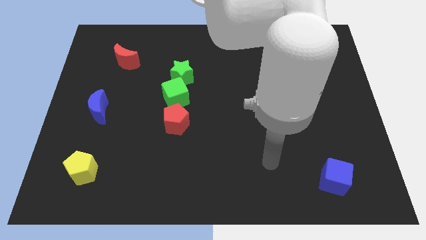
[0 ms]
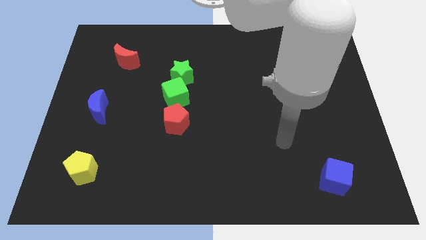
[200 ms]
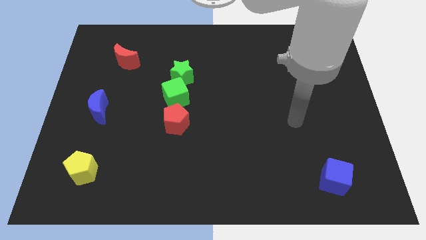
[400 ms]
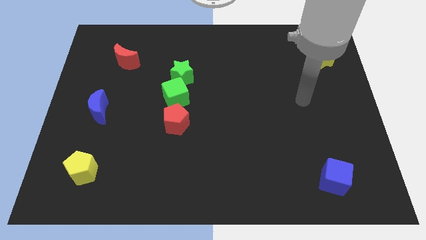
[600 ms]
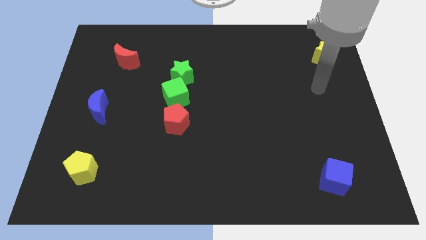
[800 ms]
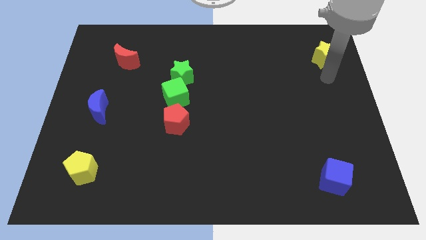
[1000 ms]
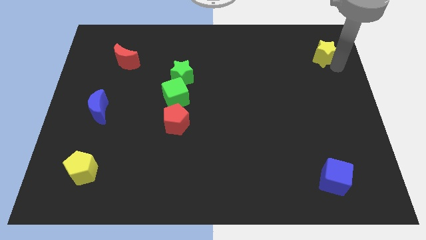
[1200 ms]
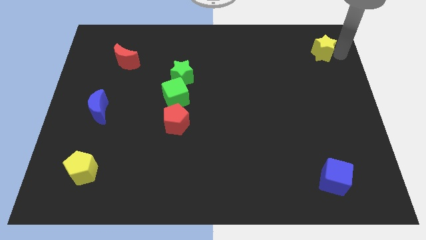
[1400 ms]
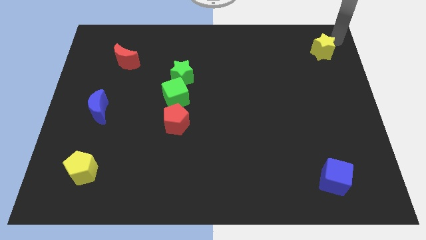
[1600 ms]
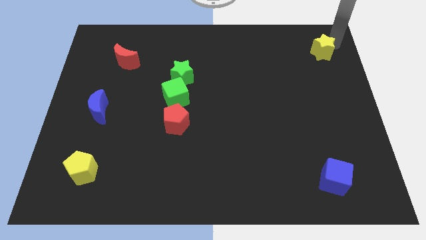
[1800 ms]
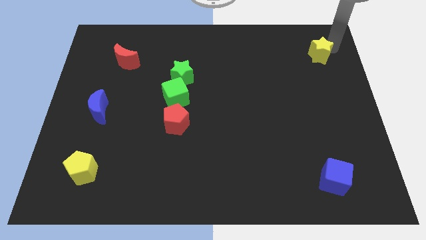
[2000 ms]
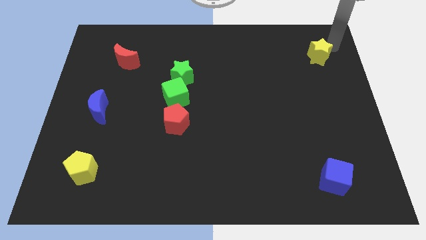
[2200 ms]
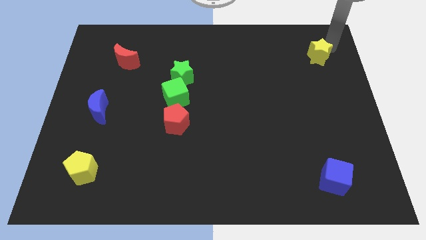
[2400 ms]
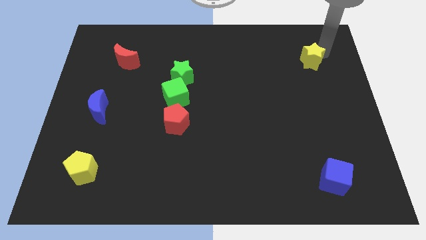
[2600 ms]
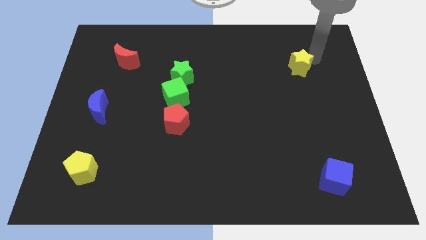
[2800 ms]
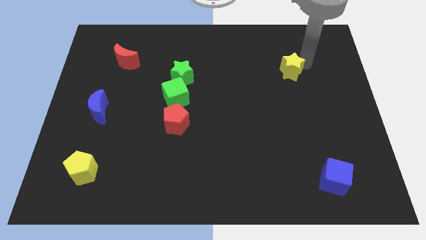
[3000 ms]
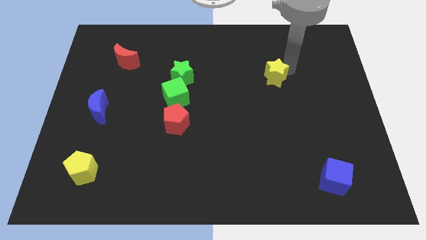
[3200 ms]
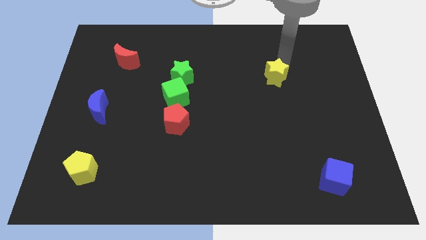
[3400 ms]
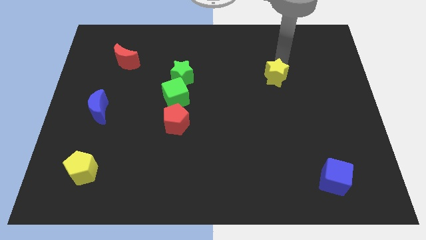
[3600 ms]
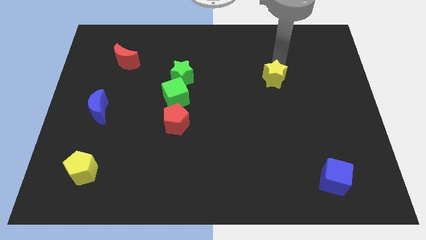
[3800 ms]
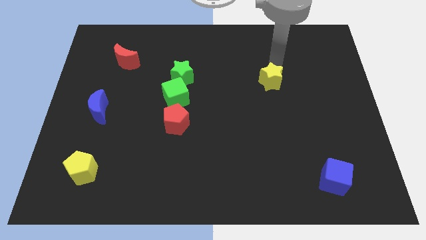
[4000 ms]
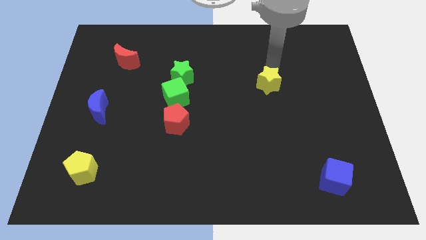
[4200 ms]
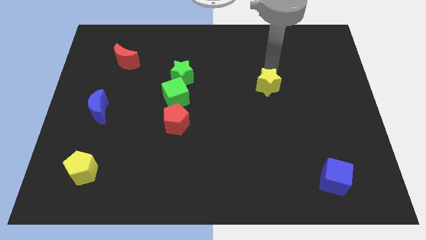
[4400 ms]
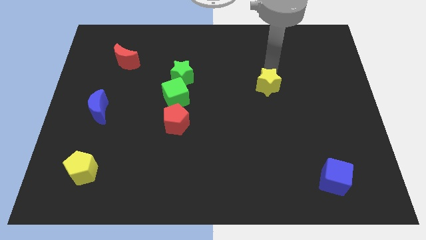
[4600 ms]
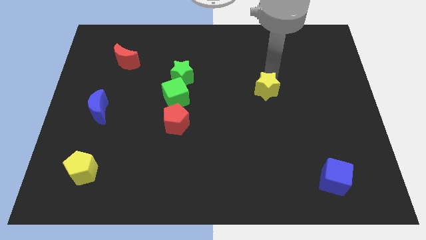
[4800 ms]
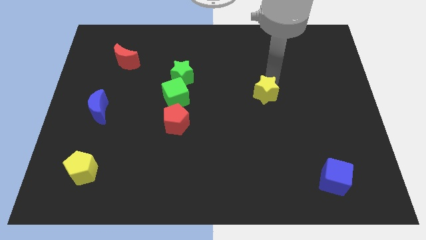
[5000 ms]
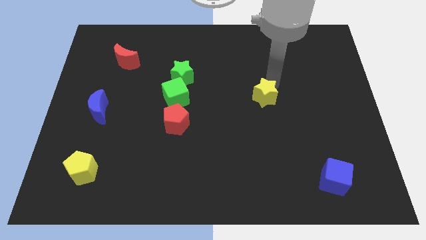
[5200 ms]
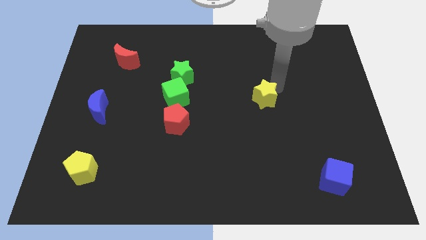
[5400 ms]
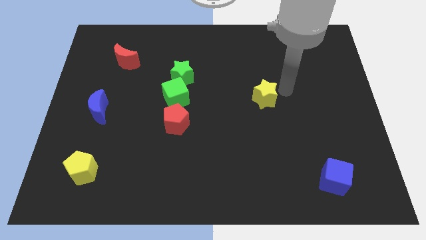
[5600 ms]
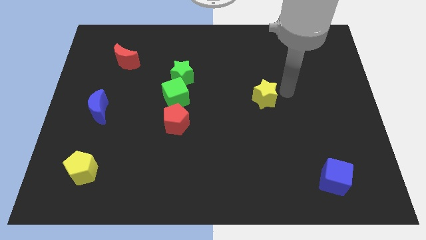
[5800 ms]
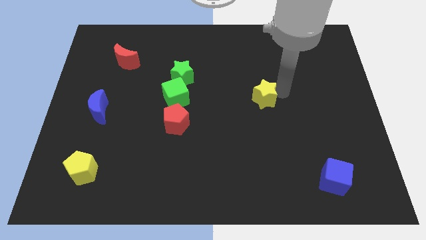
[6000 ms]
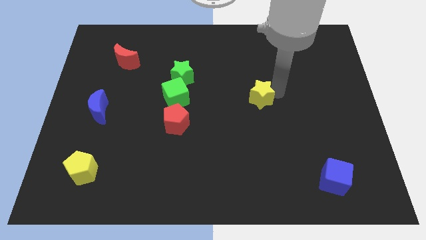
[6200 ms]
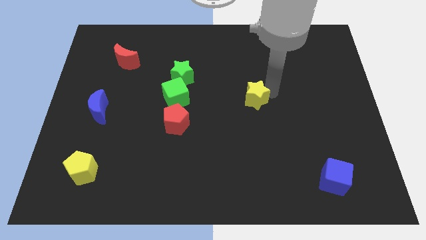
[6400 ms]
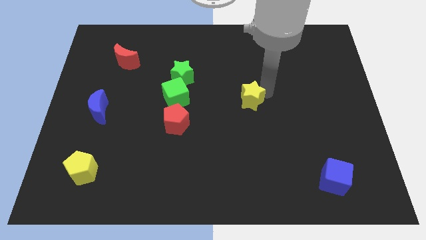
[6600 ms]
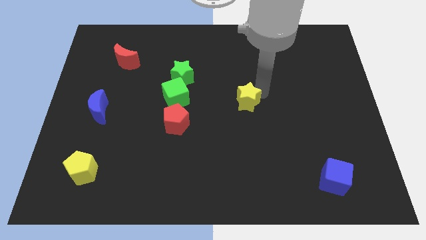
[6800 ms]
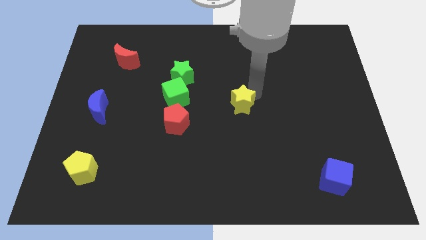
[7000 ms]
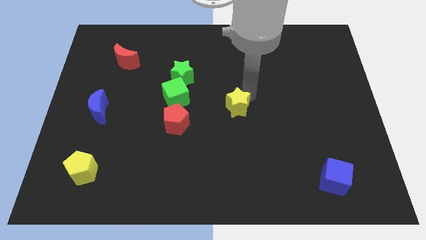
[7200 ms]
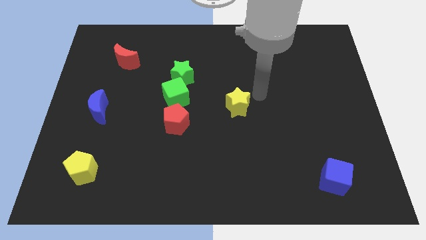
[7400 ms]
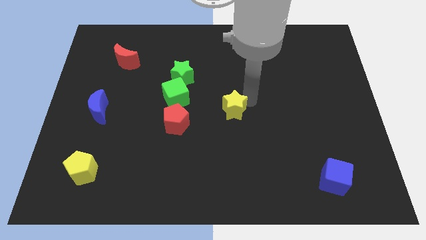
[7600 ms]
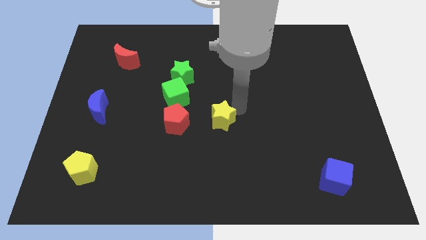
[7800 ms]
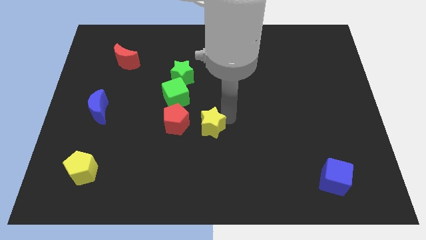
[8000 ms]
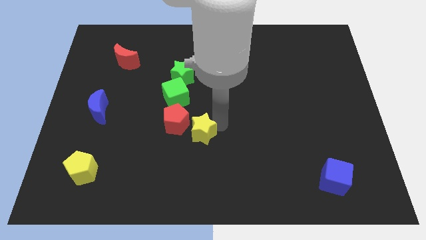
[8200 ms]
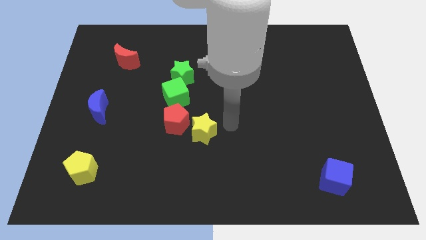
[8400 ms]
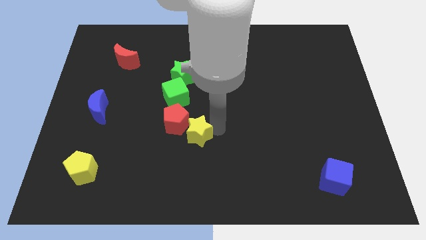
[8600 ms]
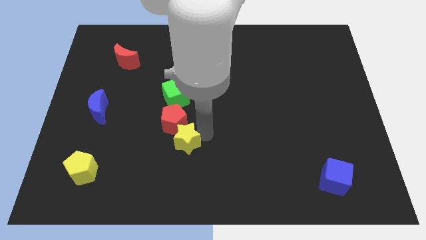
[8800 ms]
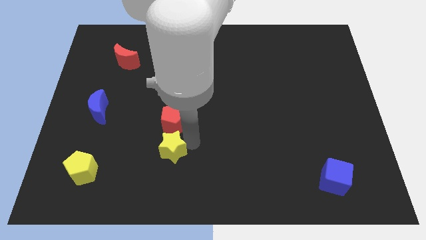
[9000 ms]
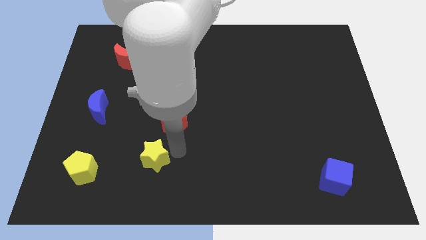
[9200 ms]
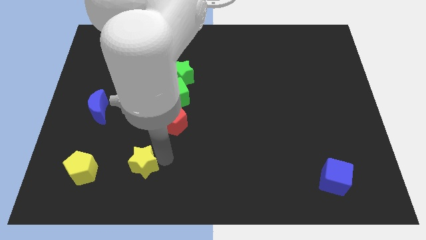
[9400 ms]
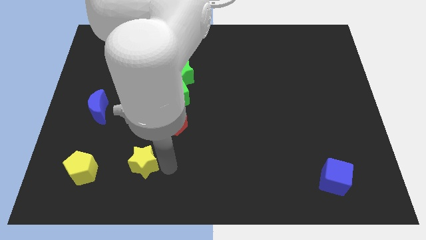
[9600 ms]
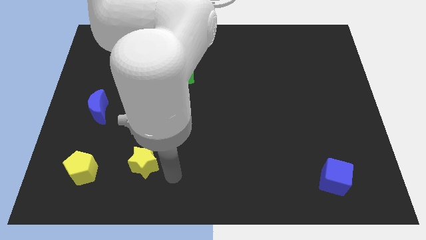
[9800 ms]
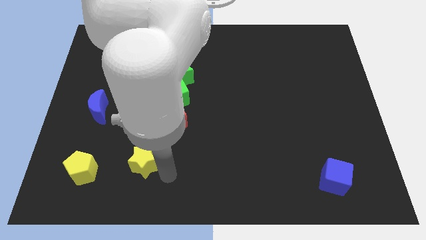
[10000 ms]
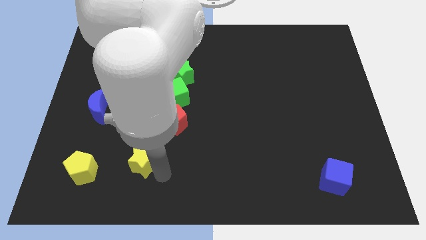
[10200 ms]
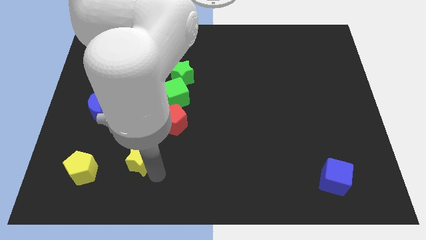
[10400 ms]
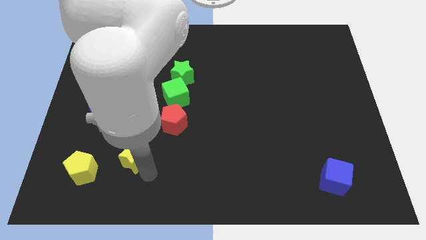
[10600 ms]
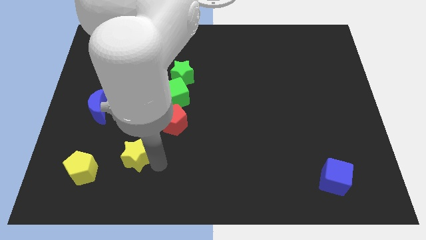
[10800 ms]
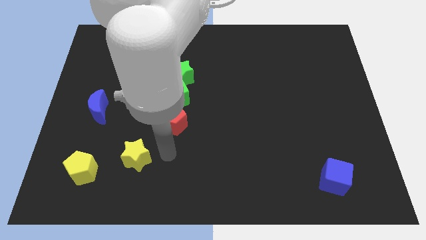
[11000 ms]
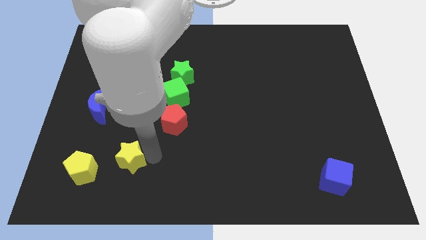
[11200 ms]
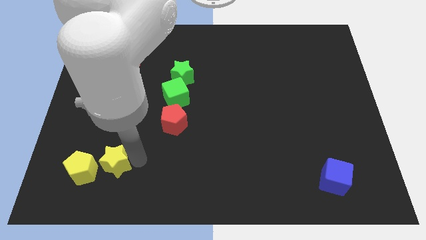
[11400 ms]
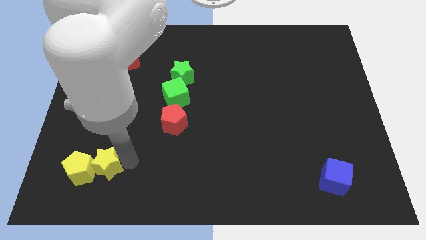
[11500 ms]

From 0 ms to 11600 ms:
push the yellow star towards the yellow pentagon

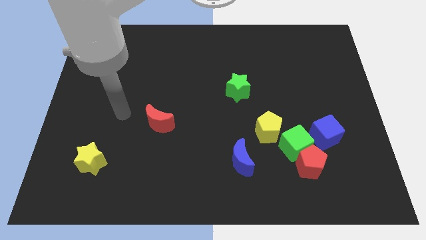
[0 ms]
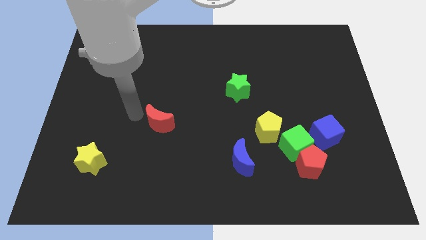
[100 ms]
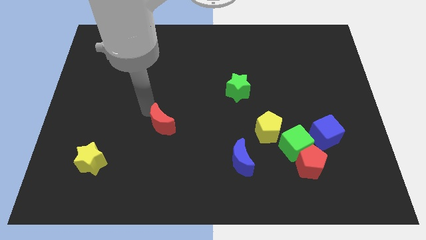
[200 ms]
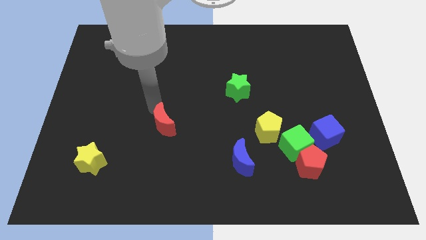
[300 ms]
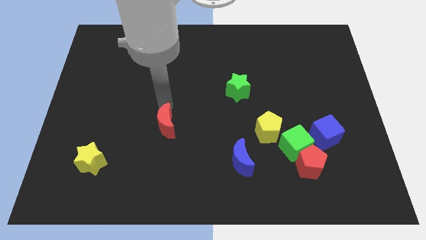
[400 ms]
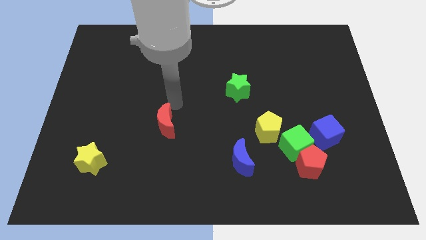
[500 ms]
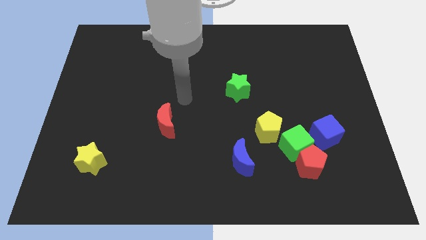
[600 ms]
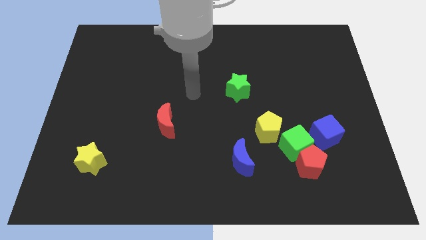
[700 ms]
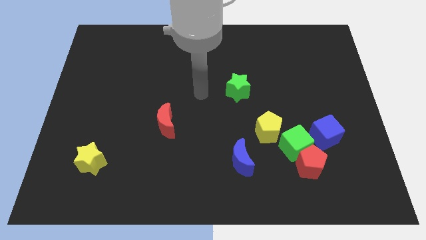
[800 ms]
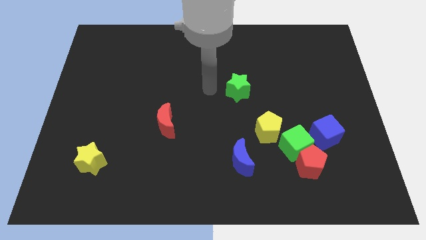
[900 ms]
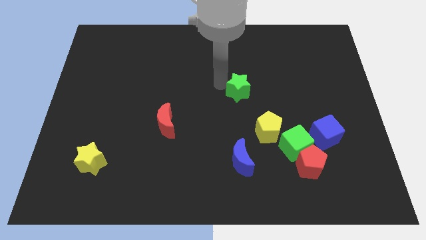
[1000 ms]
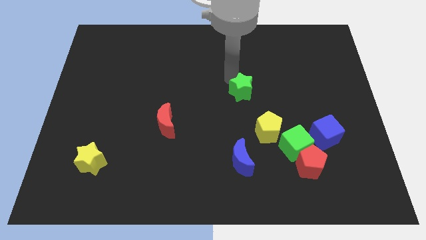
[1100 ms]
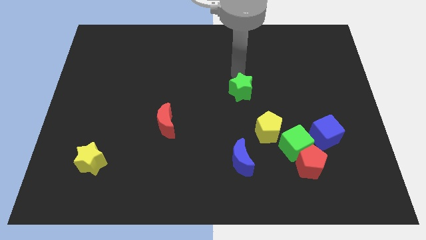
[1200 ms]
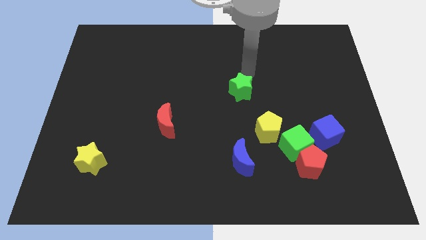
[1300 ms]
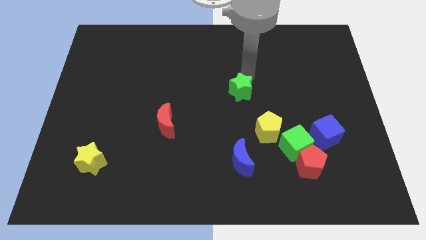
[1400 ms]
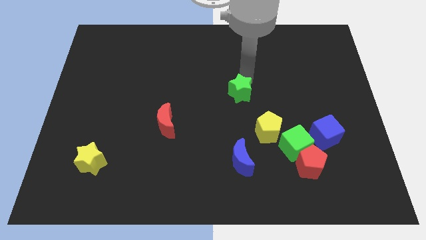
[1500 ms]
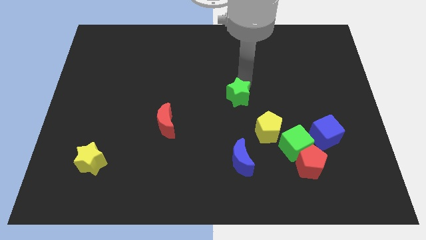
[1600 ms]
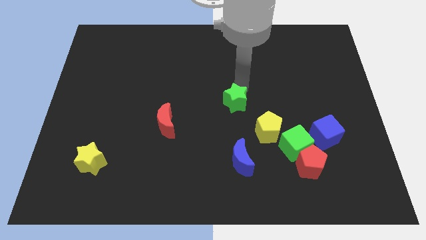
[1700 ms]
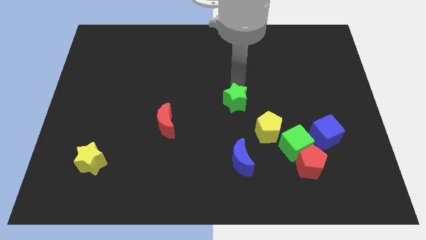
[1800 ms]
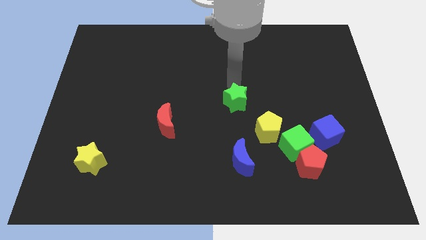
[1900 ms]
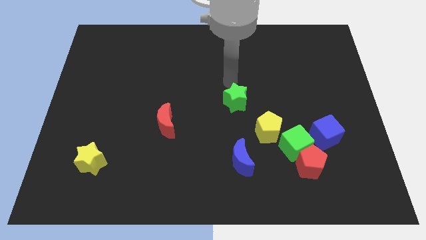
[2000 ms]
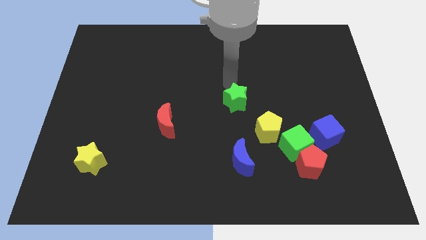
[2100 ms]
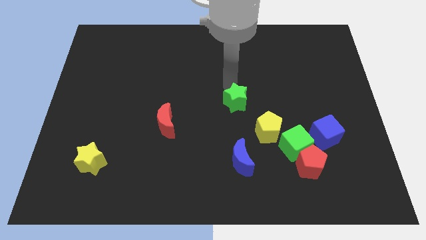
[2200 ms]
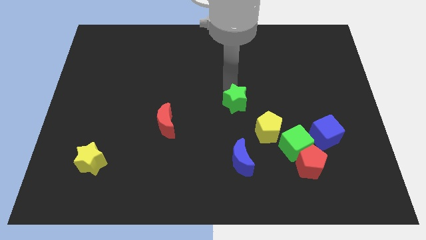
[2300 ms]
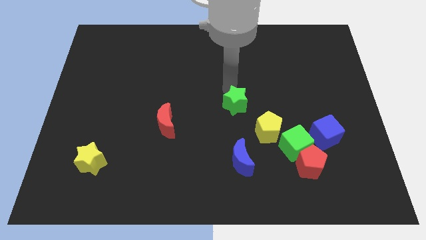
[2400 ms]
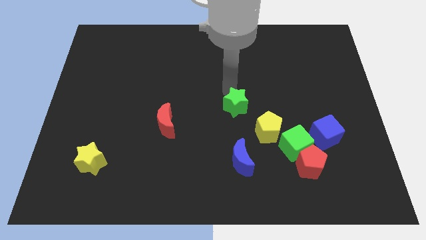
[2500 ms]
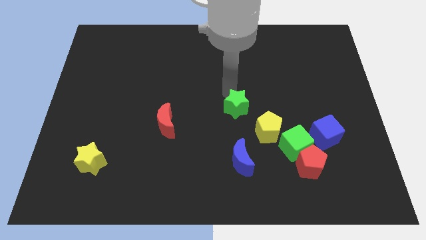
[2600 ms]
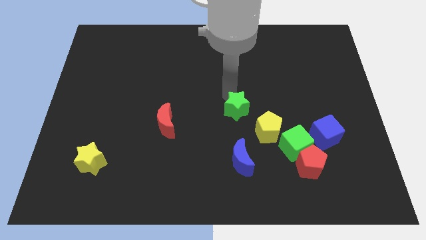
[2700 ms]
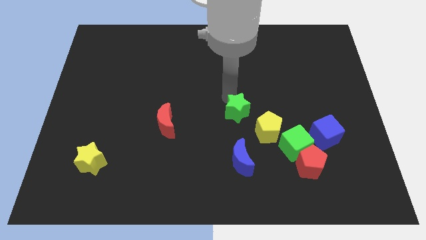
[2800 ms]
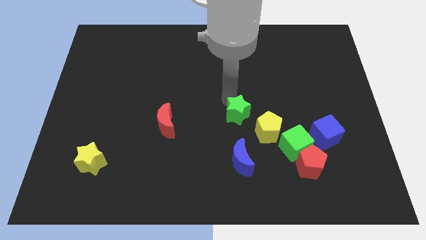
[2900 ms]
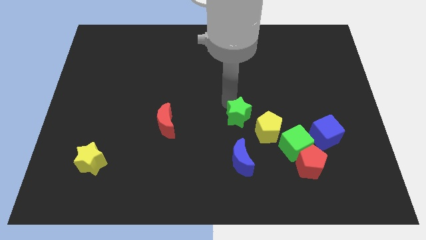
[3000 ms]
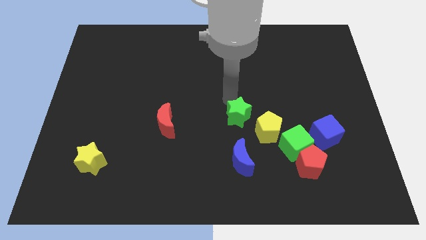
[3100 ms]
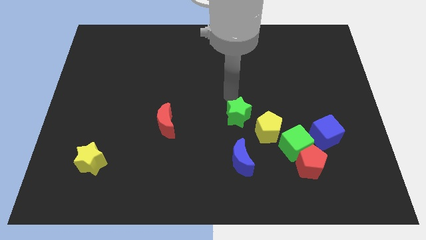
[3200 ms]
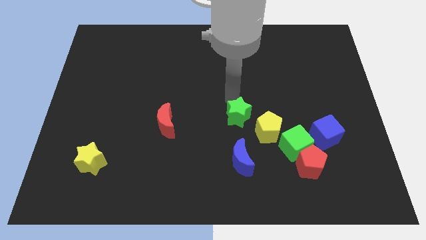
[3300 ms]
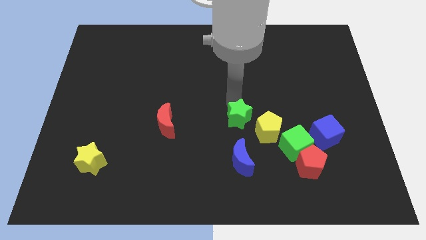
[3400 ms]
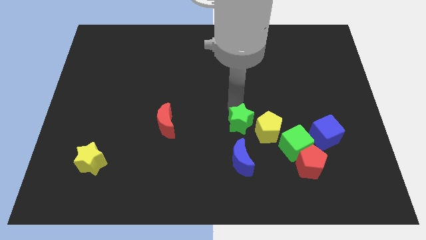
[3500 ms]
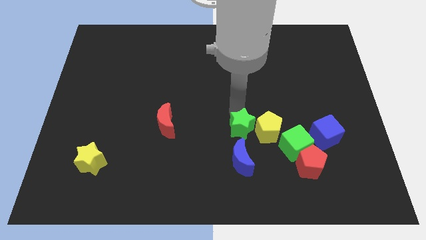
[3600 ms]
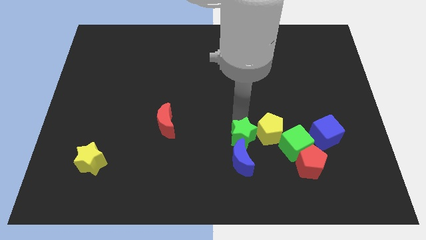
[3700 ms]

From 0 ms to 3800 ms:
put the green star towards the blue moon
